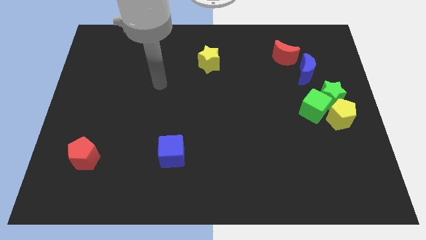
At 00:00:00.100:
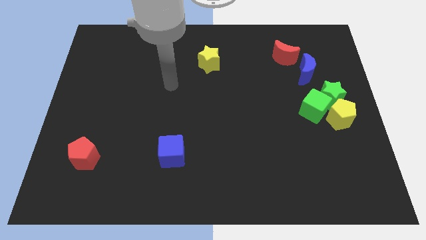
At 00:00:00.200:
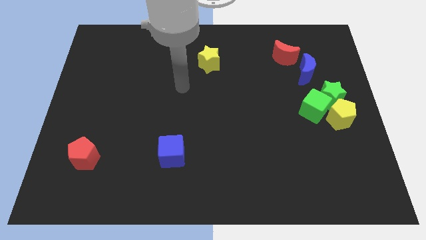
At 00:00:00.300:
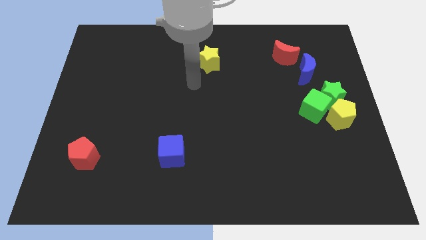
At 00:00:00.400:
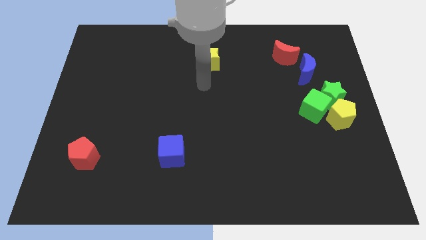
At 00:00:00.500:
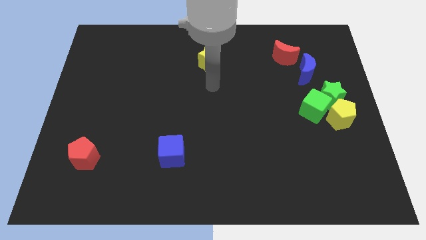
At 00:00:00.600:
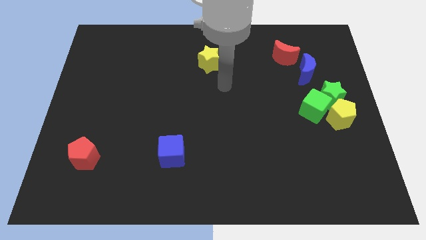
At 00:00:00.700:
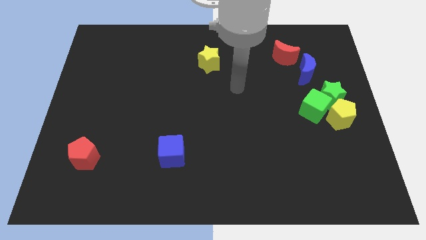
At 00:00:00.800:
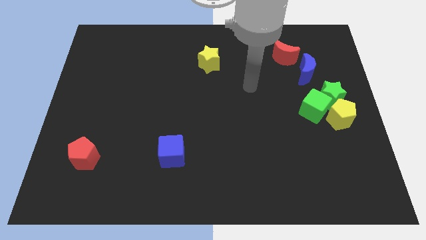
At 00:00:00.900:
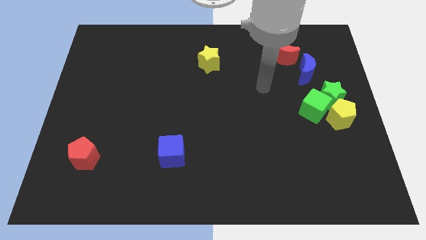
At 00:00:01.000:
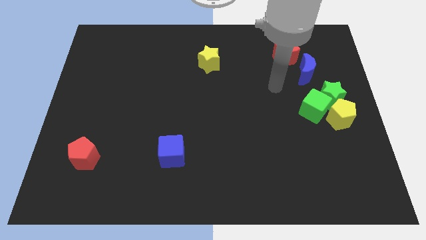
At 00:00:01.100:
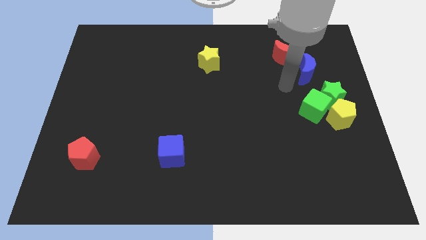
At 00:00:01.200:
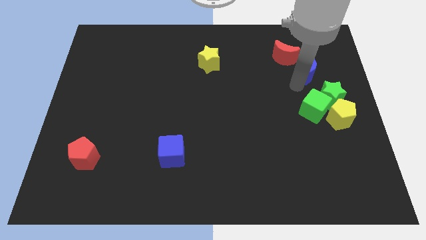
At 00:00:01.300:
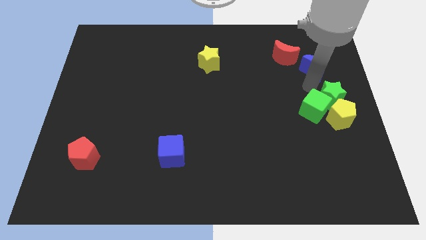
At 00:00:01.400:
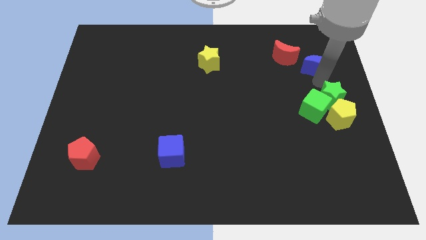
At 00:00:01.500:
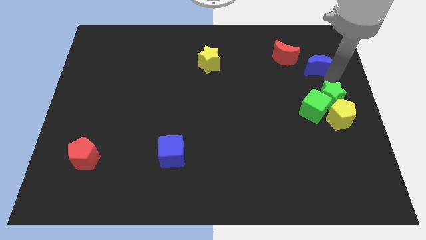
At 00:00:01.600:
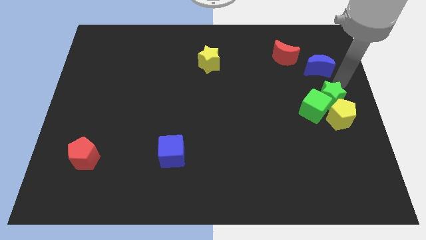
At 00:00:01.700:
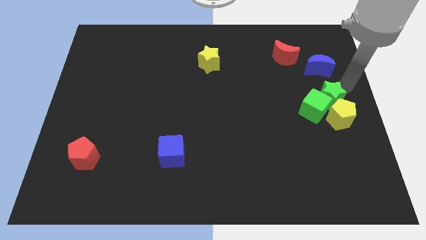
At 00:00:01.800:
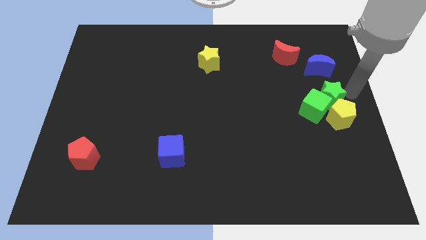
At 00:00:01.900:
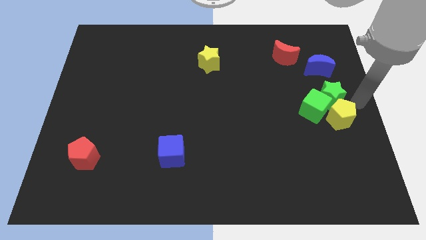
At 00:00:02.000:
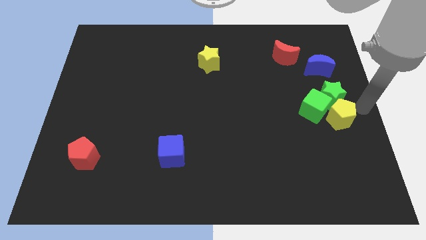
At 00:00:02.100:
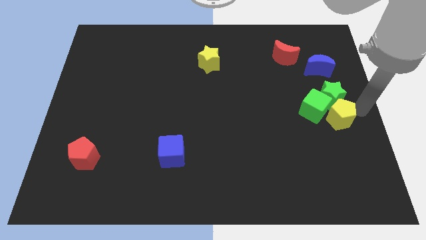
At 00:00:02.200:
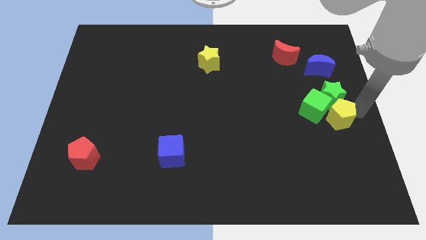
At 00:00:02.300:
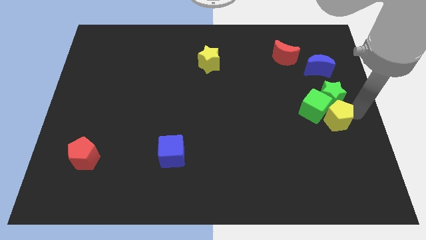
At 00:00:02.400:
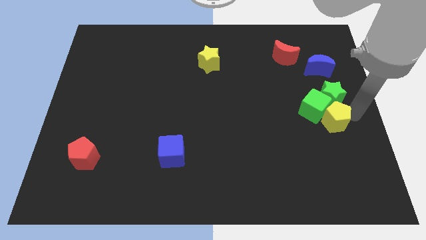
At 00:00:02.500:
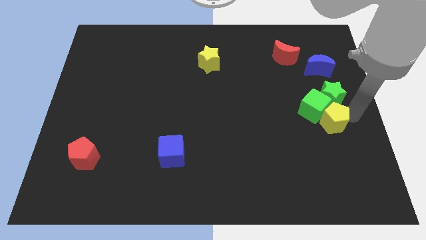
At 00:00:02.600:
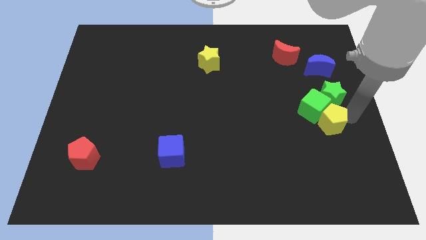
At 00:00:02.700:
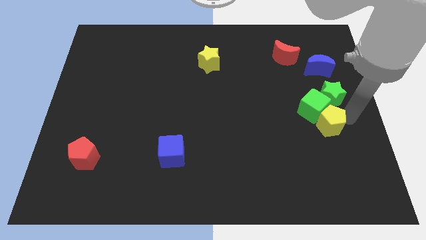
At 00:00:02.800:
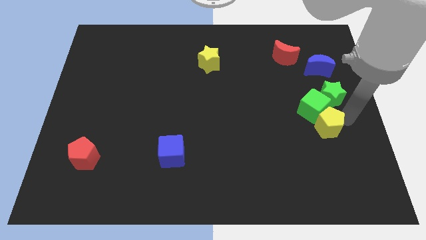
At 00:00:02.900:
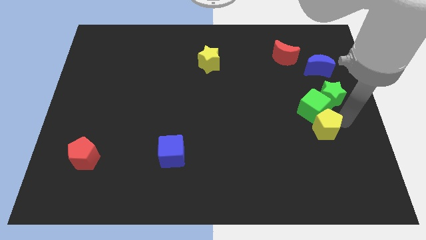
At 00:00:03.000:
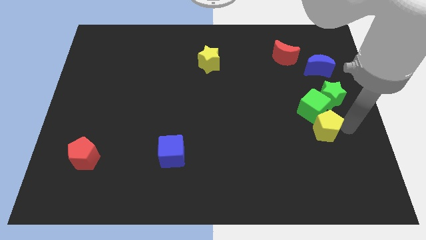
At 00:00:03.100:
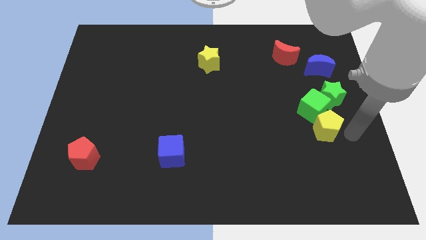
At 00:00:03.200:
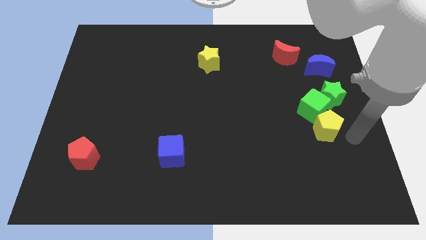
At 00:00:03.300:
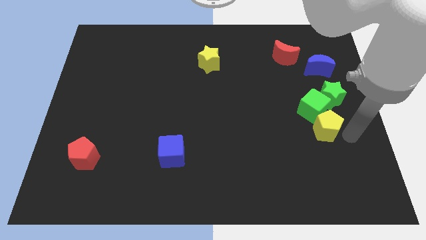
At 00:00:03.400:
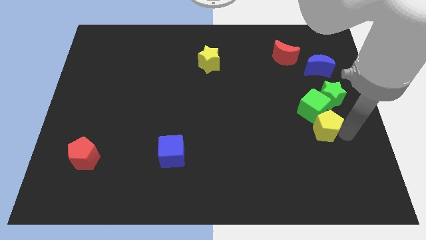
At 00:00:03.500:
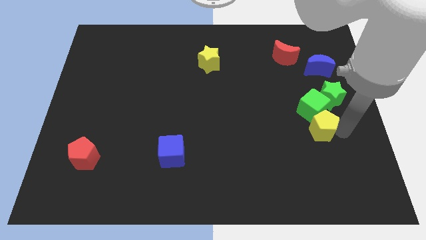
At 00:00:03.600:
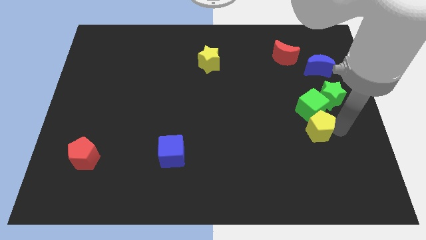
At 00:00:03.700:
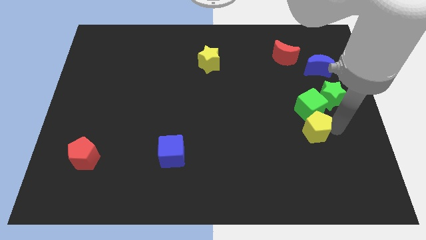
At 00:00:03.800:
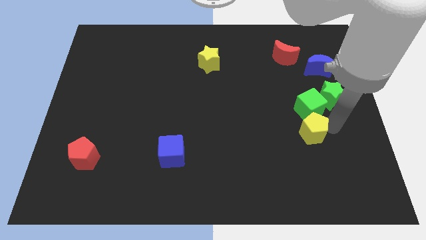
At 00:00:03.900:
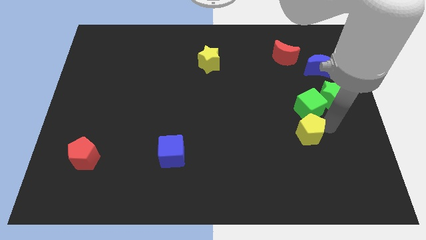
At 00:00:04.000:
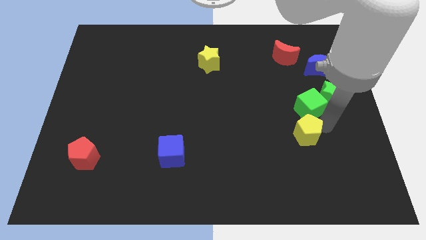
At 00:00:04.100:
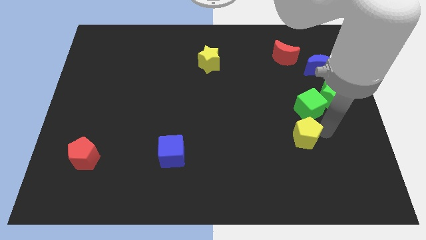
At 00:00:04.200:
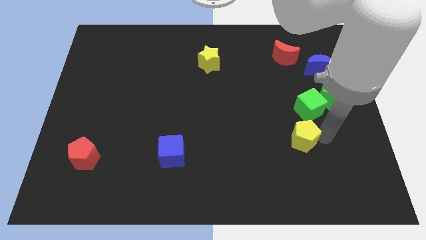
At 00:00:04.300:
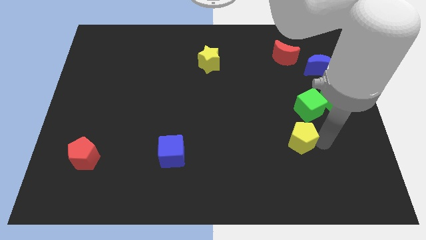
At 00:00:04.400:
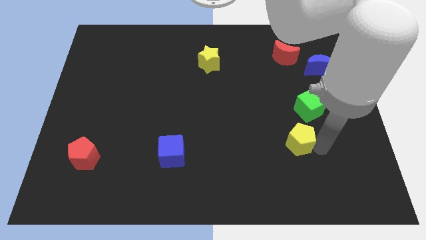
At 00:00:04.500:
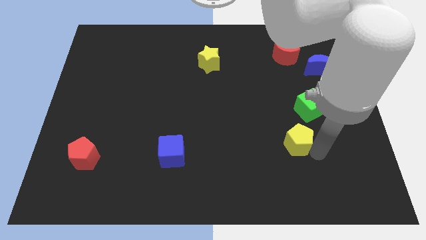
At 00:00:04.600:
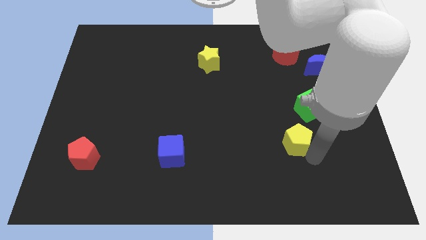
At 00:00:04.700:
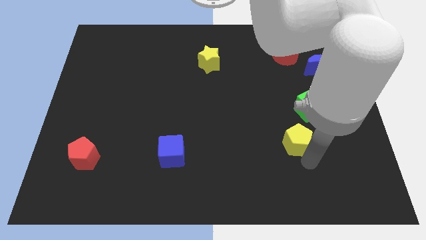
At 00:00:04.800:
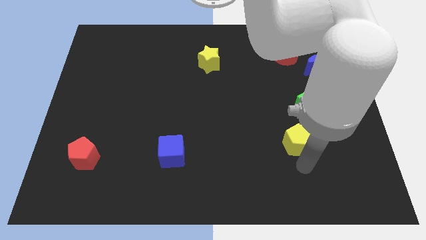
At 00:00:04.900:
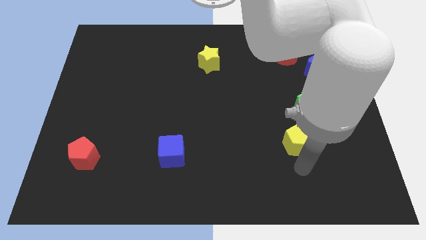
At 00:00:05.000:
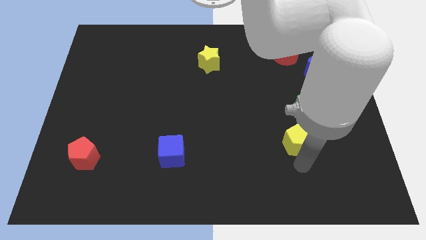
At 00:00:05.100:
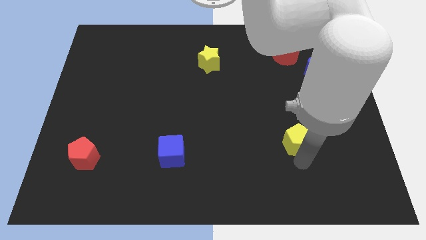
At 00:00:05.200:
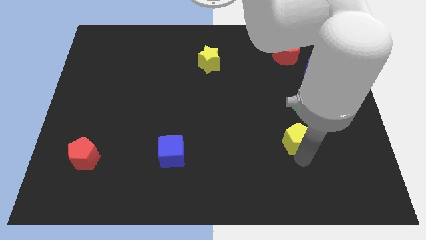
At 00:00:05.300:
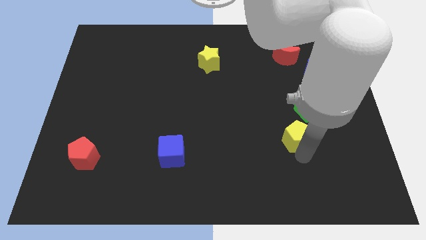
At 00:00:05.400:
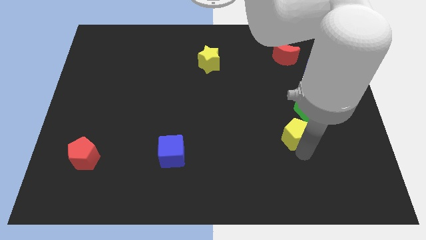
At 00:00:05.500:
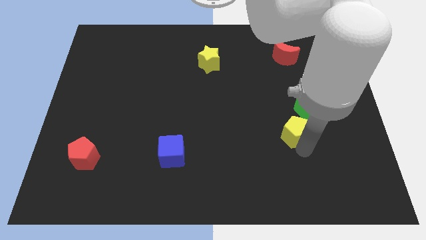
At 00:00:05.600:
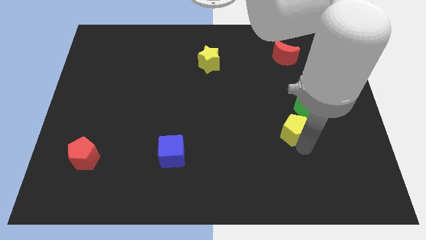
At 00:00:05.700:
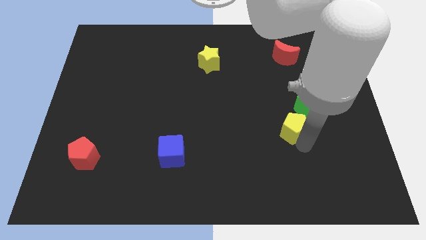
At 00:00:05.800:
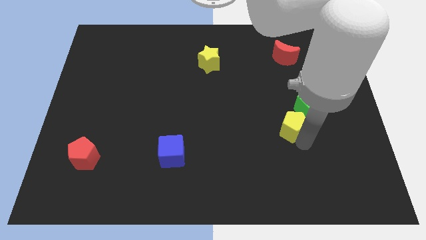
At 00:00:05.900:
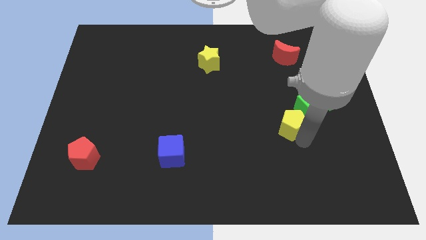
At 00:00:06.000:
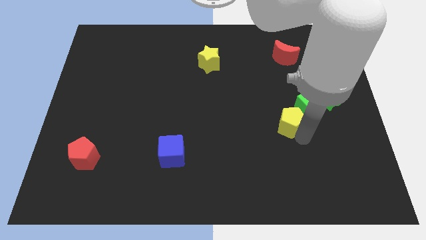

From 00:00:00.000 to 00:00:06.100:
slide the yellow pentagon left of the green cube

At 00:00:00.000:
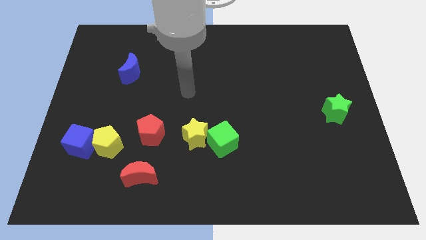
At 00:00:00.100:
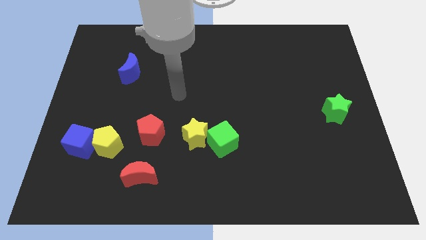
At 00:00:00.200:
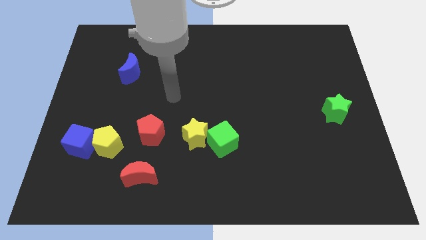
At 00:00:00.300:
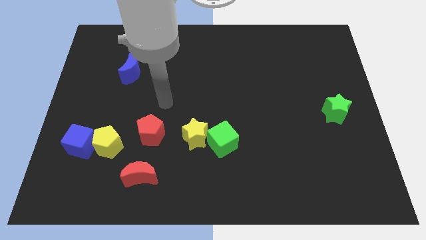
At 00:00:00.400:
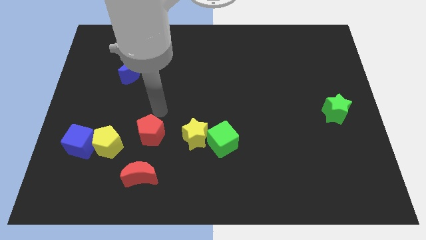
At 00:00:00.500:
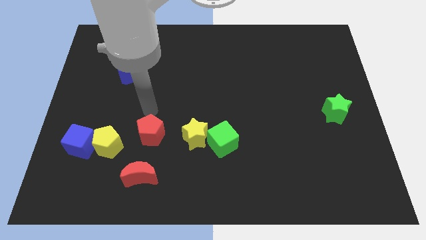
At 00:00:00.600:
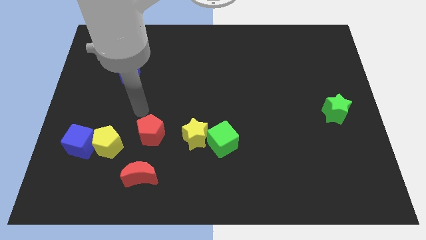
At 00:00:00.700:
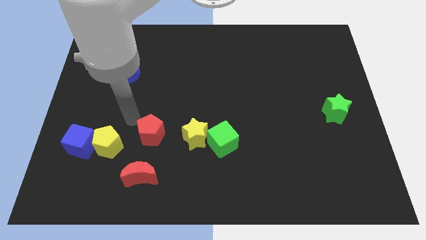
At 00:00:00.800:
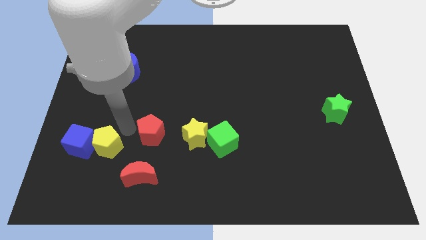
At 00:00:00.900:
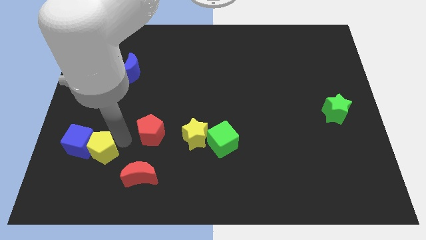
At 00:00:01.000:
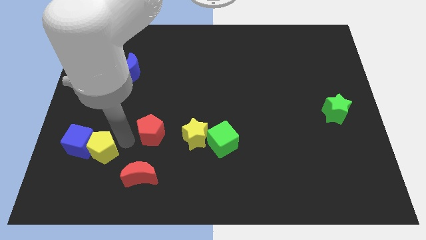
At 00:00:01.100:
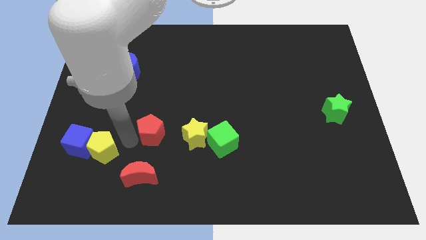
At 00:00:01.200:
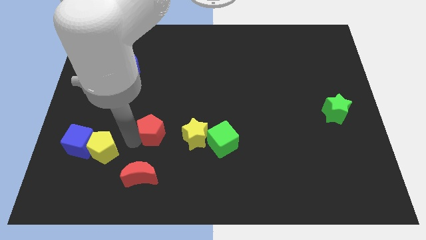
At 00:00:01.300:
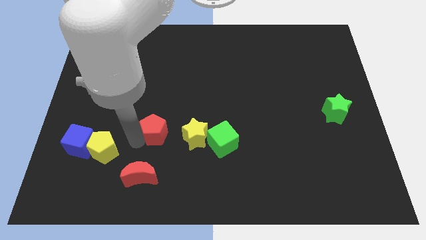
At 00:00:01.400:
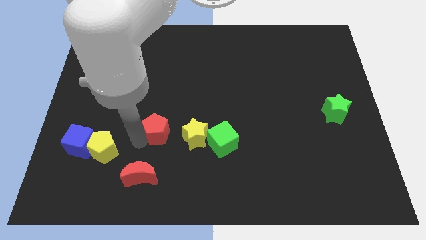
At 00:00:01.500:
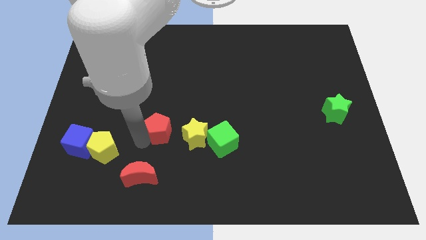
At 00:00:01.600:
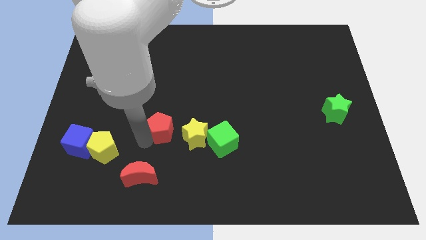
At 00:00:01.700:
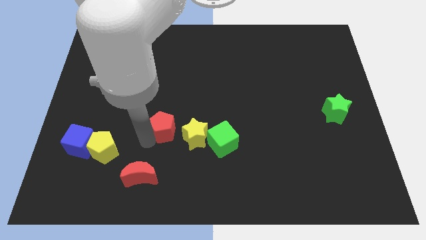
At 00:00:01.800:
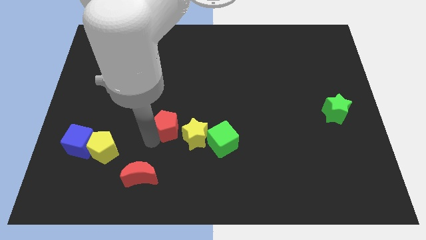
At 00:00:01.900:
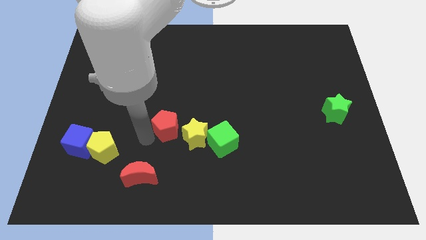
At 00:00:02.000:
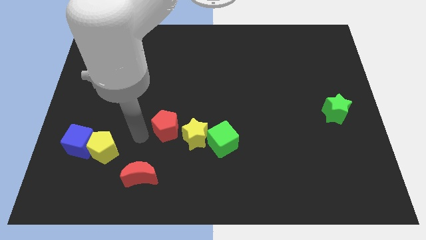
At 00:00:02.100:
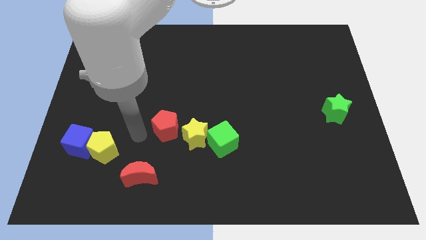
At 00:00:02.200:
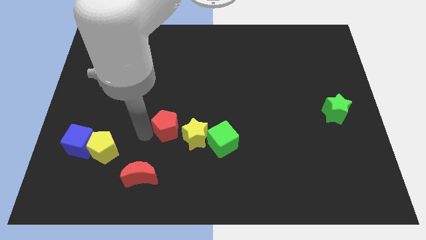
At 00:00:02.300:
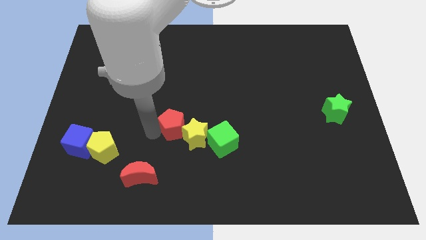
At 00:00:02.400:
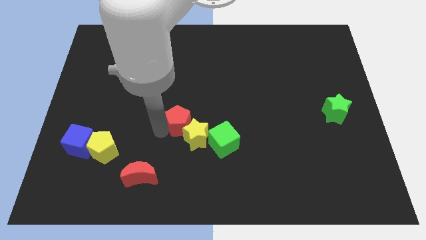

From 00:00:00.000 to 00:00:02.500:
move the red pentagon to the top left of the green cube

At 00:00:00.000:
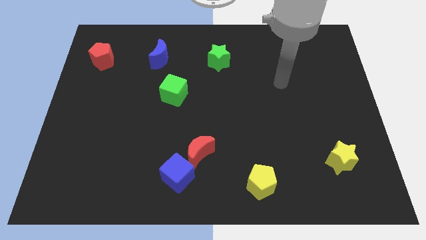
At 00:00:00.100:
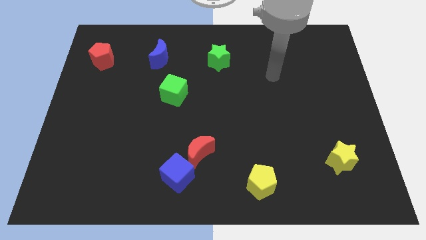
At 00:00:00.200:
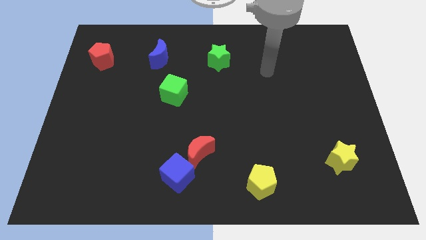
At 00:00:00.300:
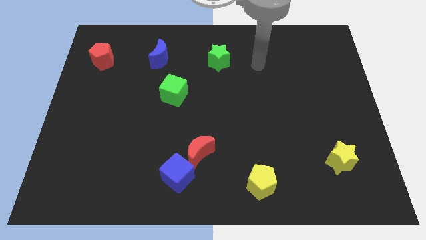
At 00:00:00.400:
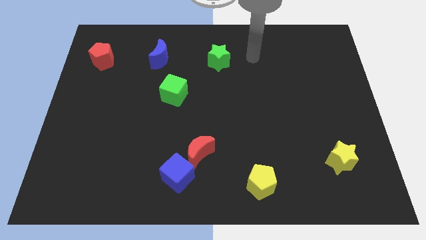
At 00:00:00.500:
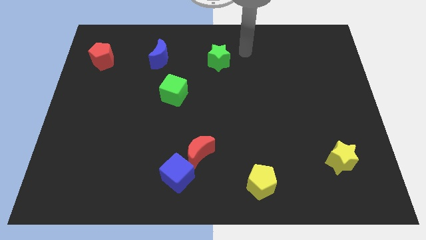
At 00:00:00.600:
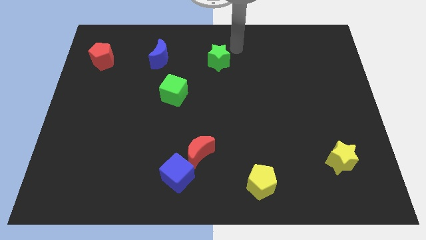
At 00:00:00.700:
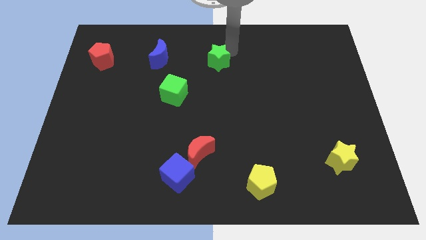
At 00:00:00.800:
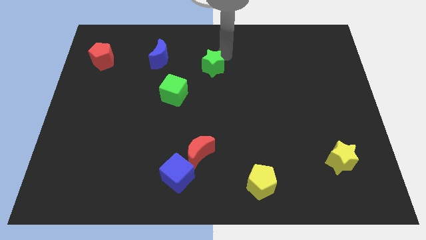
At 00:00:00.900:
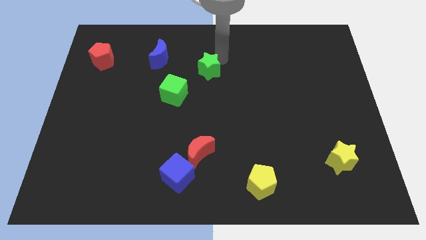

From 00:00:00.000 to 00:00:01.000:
push the green star diagonally up and to the right of the green cube
